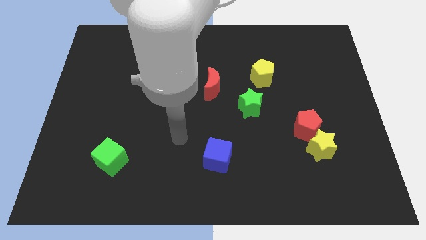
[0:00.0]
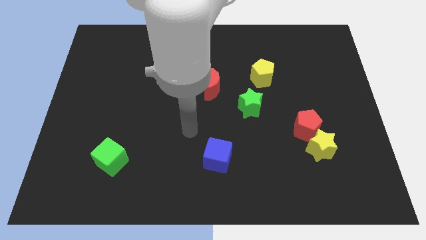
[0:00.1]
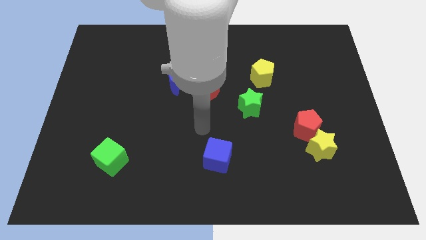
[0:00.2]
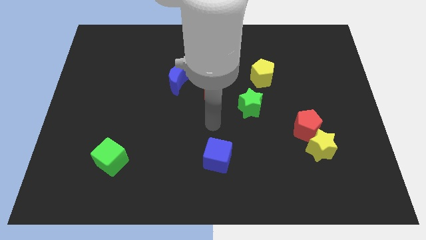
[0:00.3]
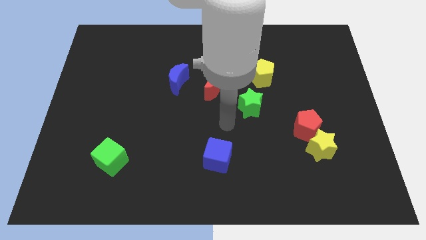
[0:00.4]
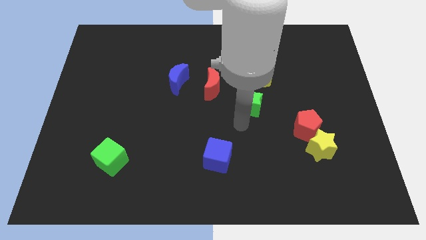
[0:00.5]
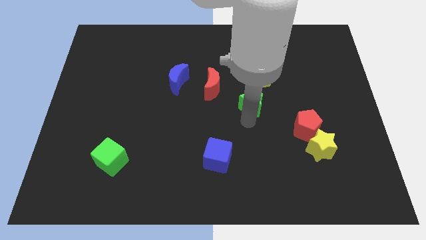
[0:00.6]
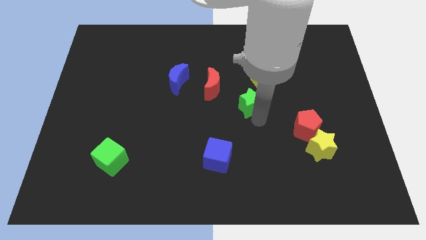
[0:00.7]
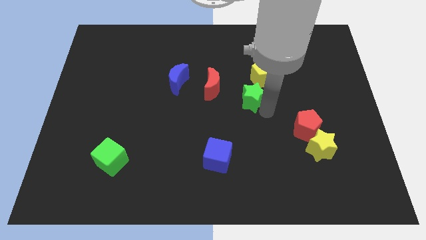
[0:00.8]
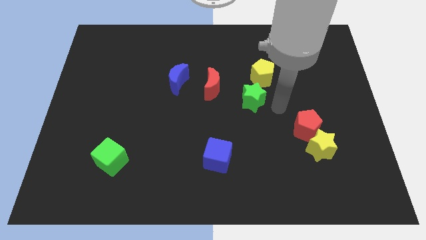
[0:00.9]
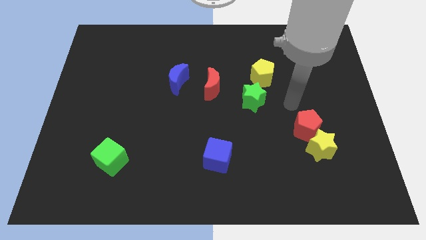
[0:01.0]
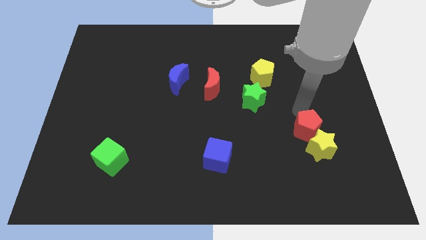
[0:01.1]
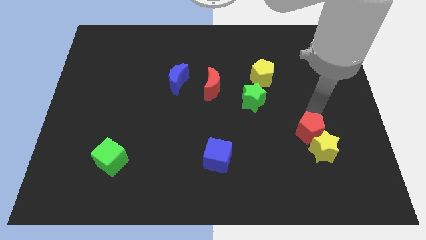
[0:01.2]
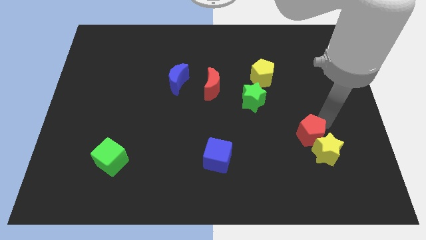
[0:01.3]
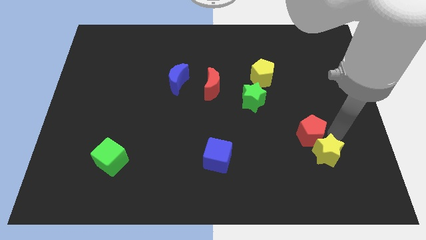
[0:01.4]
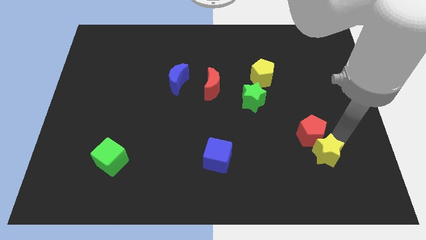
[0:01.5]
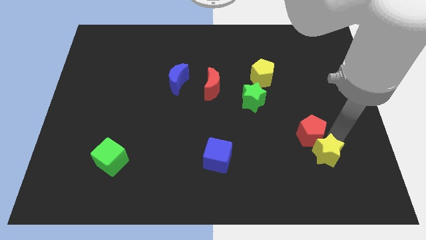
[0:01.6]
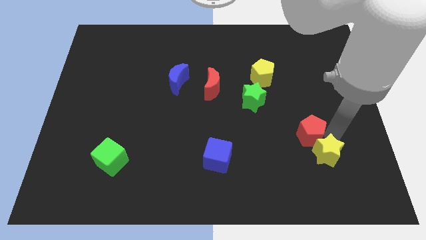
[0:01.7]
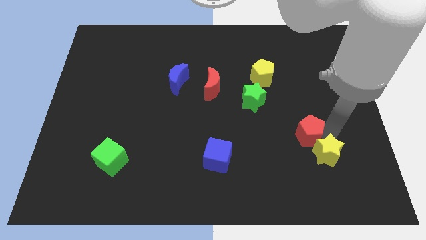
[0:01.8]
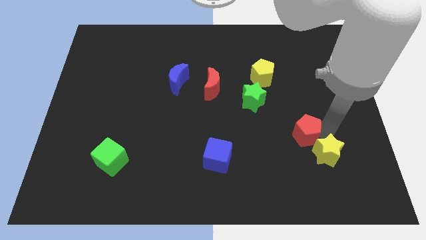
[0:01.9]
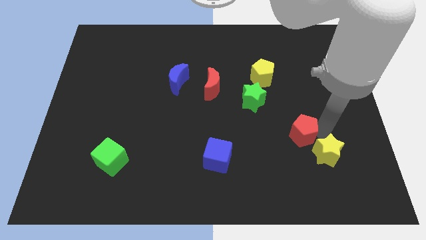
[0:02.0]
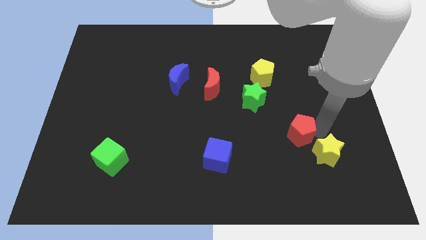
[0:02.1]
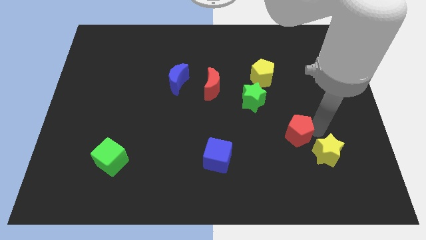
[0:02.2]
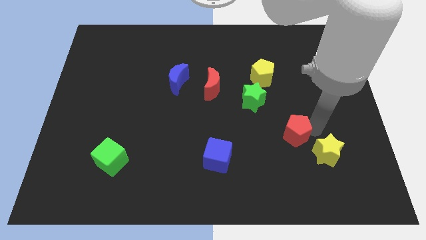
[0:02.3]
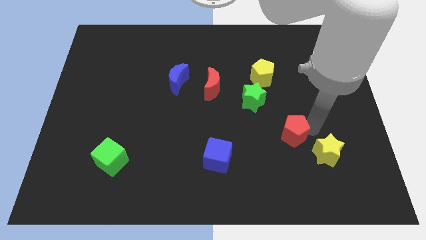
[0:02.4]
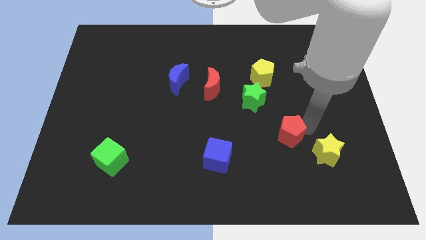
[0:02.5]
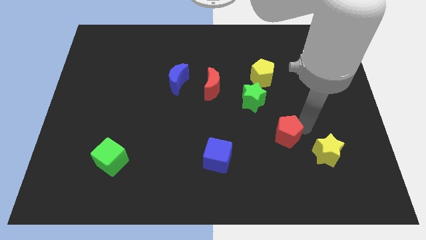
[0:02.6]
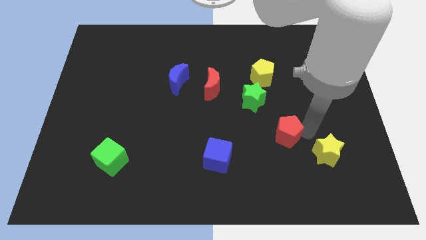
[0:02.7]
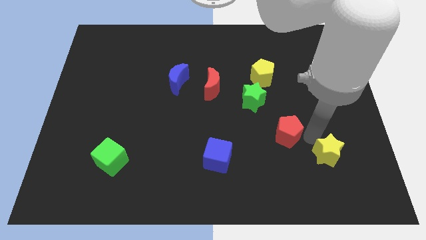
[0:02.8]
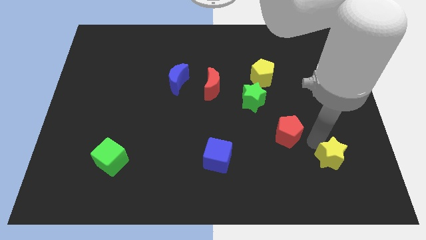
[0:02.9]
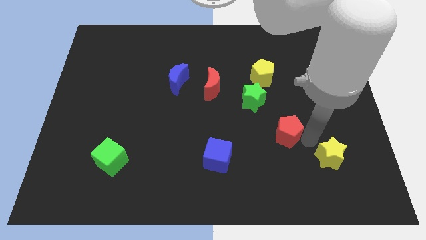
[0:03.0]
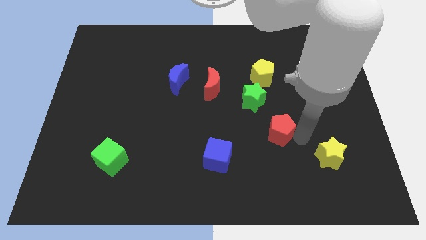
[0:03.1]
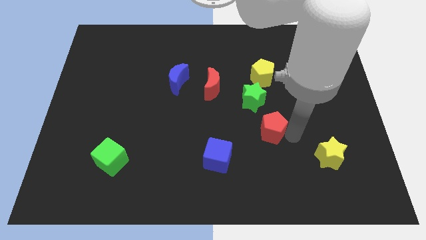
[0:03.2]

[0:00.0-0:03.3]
slightly move the red pentagon left

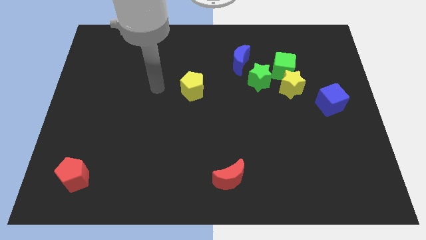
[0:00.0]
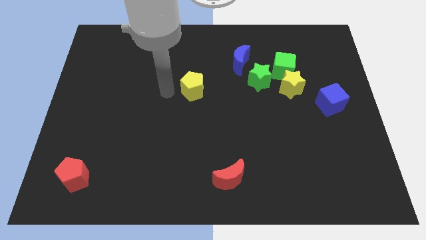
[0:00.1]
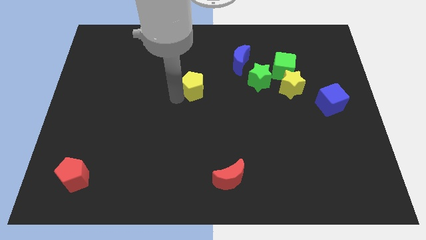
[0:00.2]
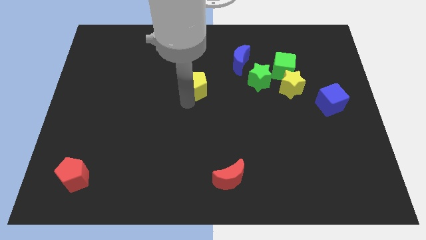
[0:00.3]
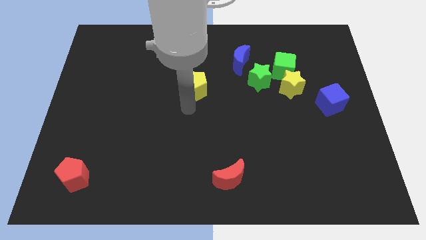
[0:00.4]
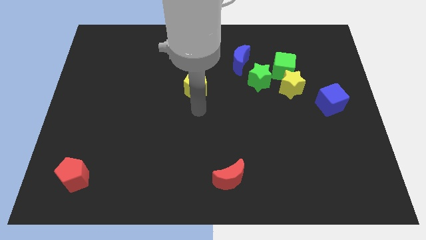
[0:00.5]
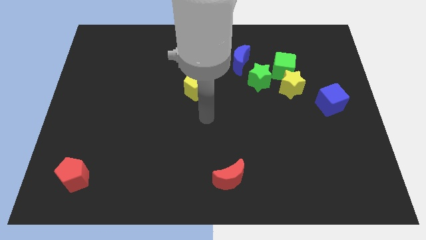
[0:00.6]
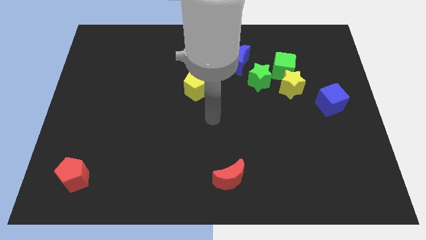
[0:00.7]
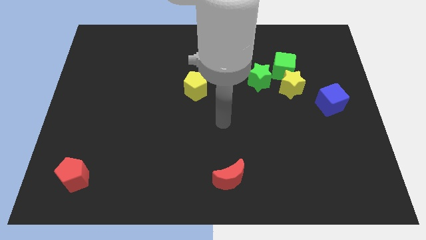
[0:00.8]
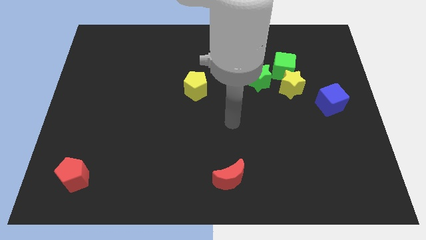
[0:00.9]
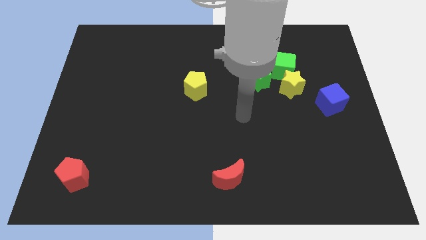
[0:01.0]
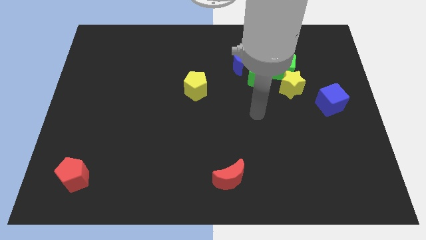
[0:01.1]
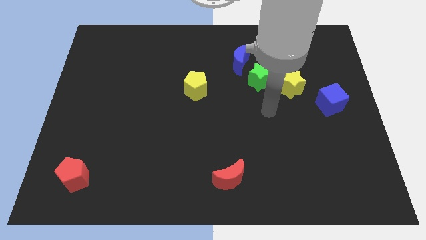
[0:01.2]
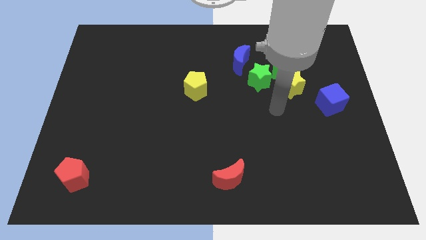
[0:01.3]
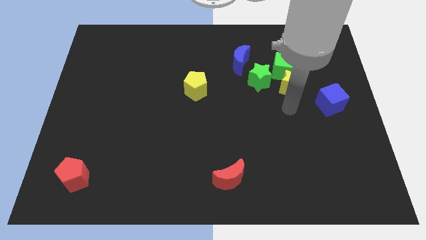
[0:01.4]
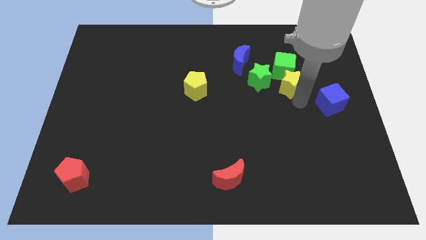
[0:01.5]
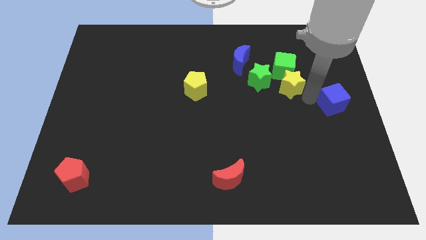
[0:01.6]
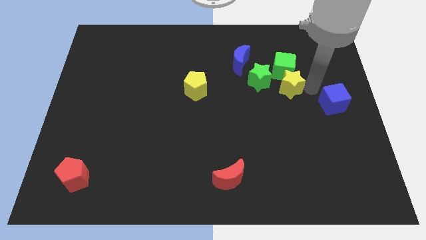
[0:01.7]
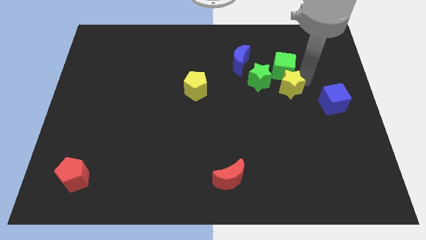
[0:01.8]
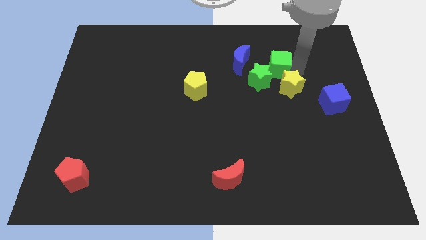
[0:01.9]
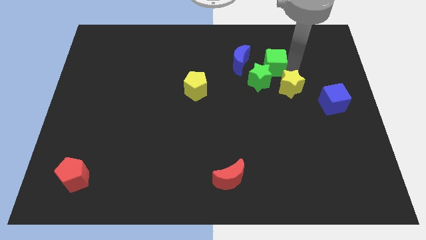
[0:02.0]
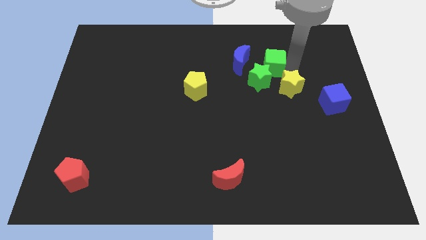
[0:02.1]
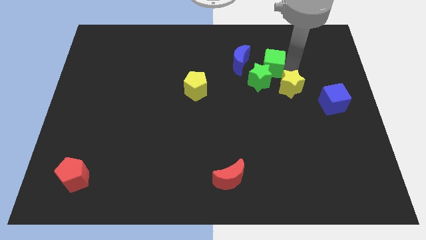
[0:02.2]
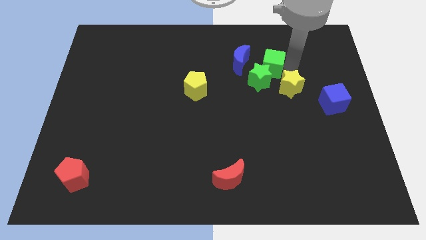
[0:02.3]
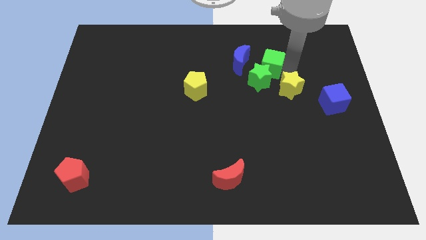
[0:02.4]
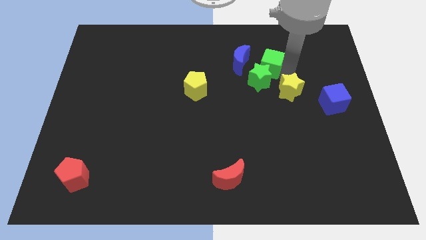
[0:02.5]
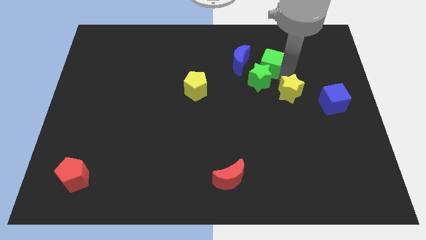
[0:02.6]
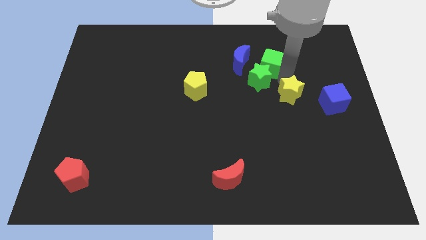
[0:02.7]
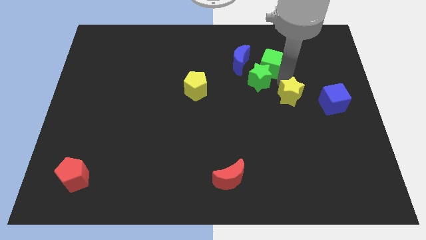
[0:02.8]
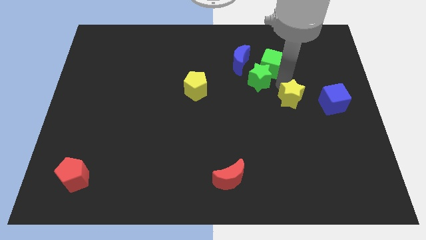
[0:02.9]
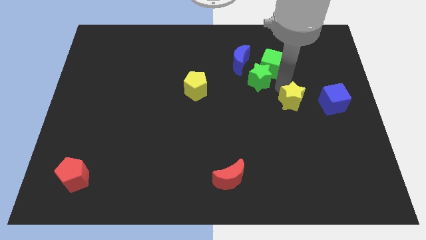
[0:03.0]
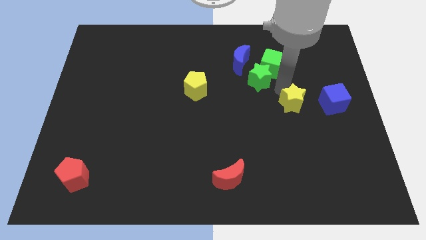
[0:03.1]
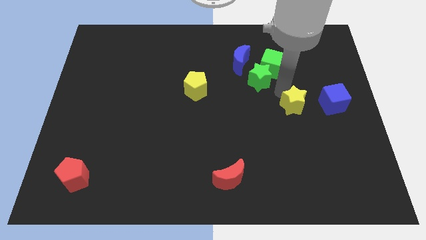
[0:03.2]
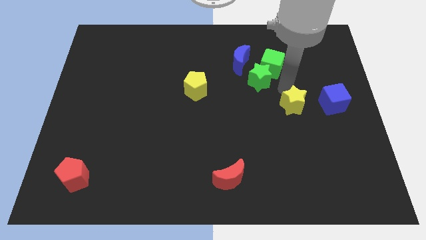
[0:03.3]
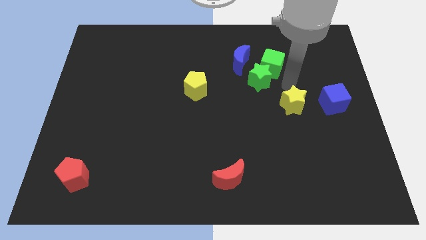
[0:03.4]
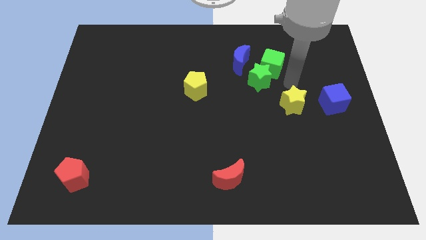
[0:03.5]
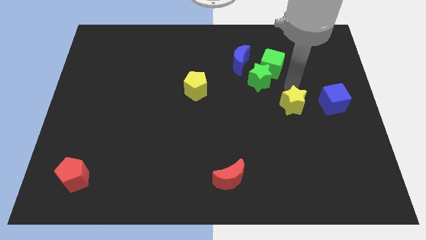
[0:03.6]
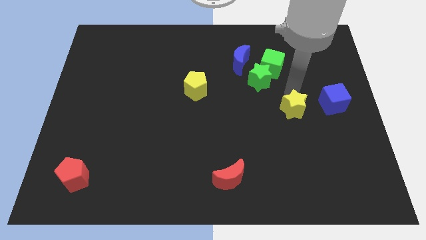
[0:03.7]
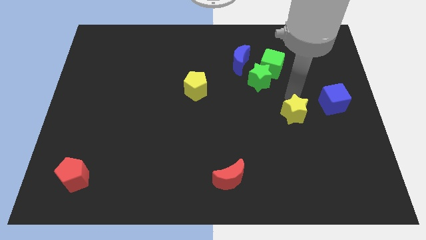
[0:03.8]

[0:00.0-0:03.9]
slightly push the yellow star downwards

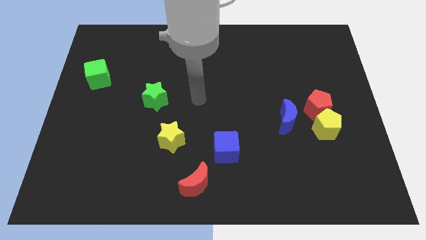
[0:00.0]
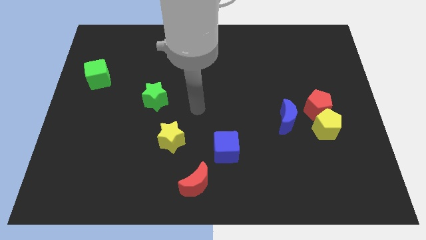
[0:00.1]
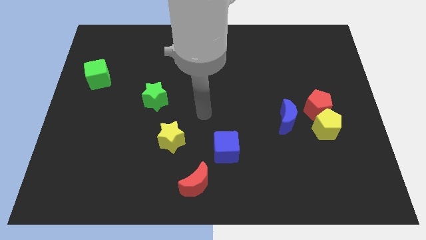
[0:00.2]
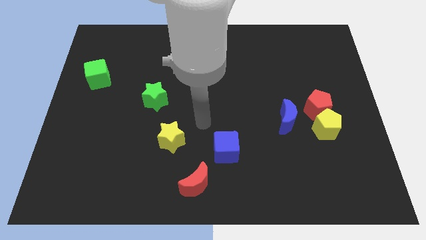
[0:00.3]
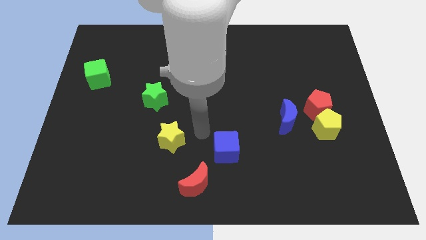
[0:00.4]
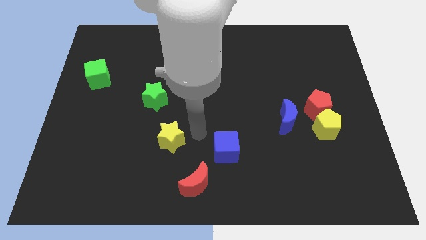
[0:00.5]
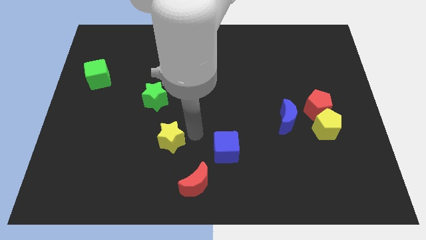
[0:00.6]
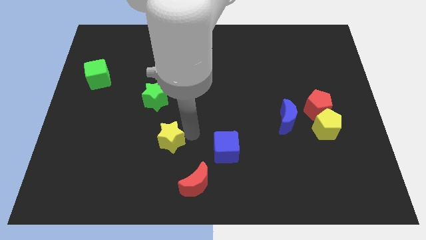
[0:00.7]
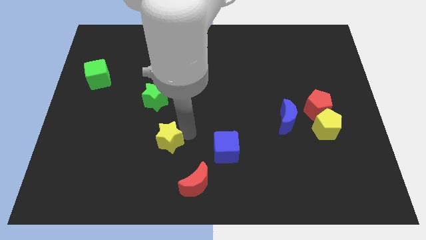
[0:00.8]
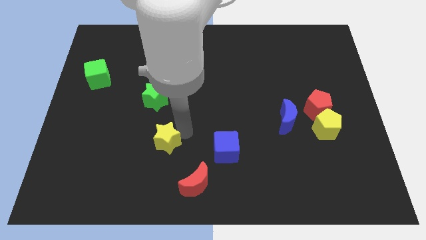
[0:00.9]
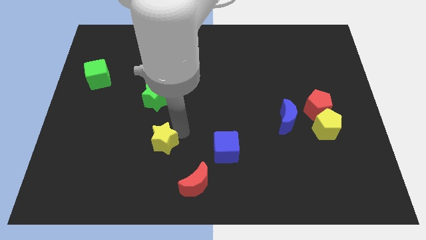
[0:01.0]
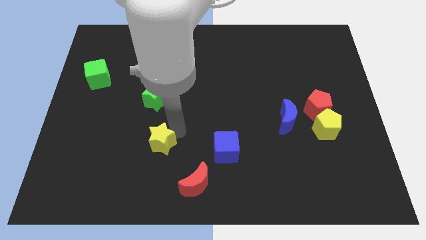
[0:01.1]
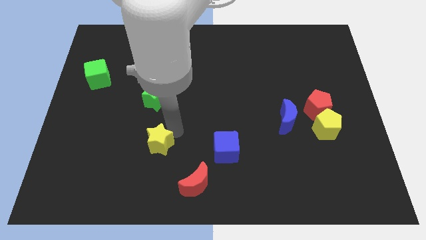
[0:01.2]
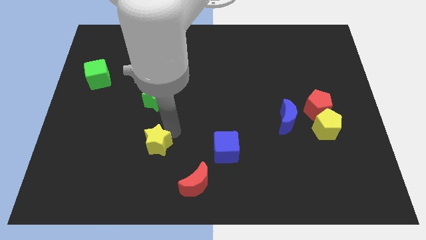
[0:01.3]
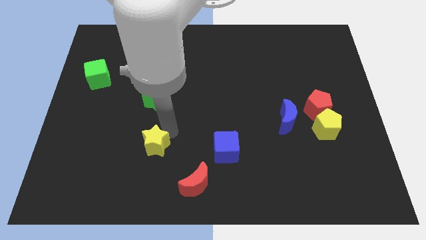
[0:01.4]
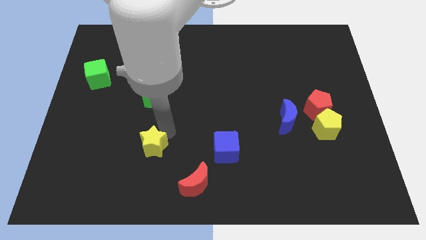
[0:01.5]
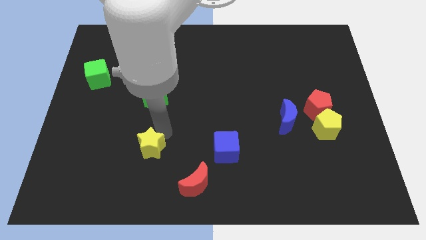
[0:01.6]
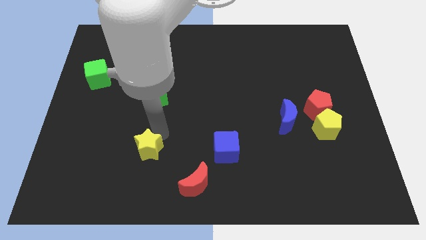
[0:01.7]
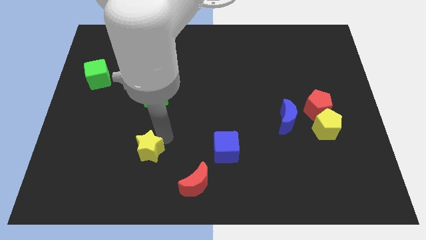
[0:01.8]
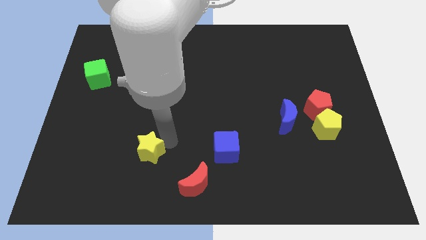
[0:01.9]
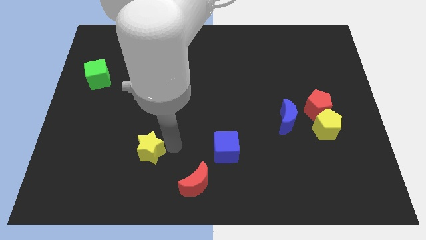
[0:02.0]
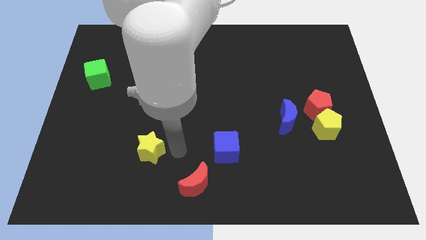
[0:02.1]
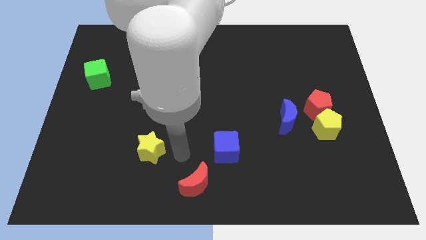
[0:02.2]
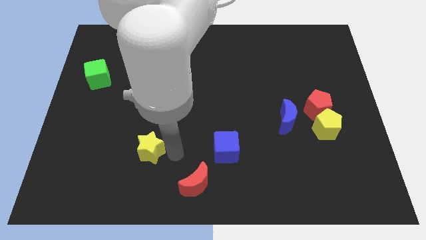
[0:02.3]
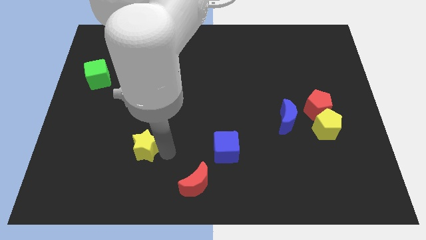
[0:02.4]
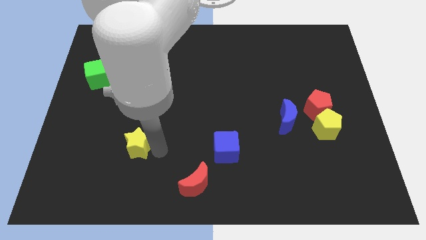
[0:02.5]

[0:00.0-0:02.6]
move the yellow star left a bit
